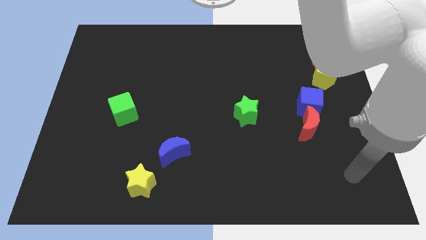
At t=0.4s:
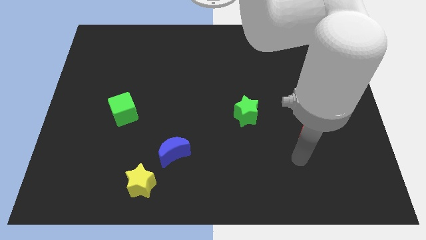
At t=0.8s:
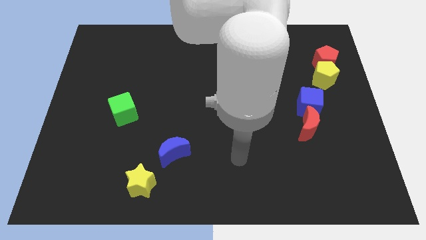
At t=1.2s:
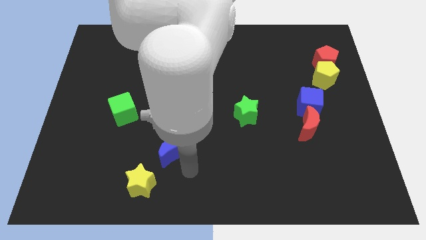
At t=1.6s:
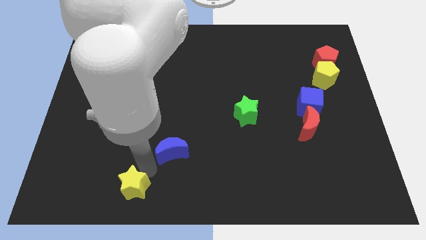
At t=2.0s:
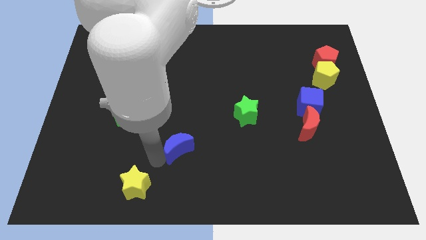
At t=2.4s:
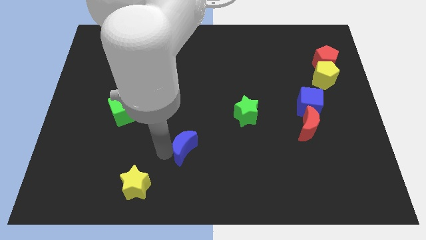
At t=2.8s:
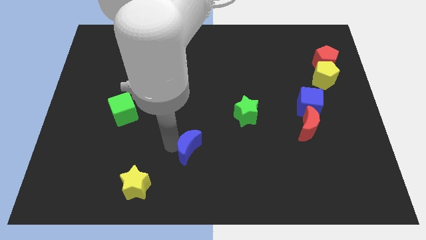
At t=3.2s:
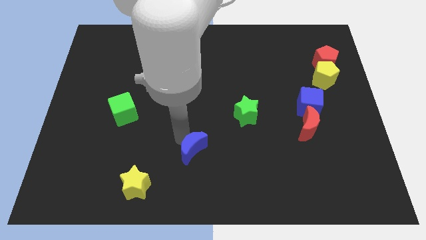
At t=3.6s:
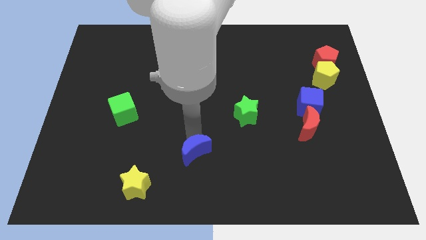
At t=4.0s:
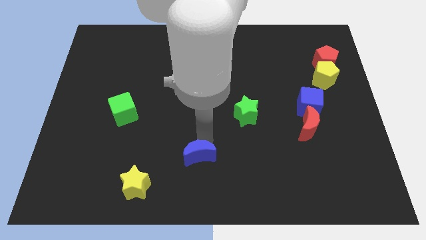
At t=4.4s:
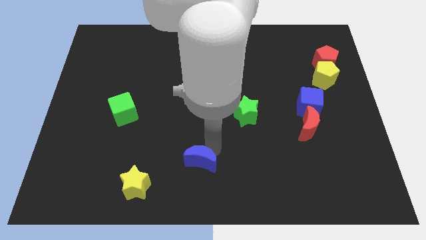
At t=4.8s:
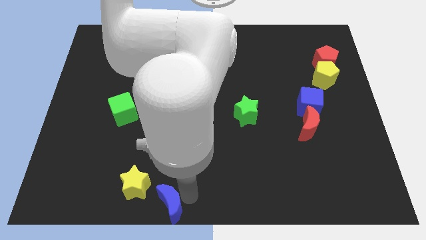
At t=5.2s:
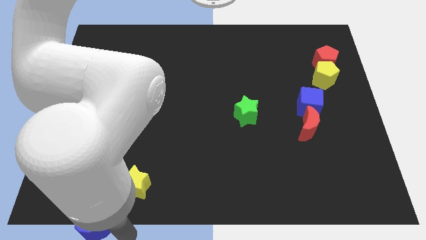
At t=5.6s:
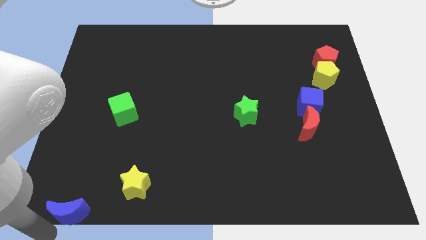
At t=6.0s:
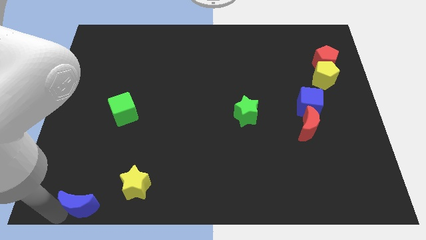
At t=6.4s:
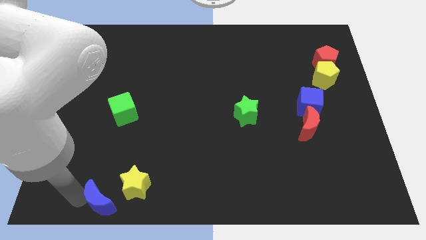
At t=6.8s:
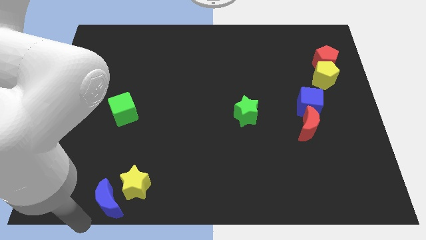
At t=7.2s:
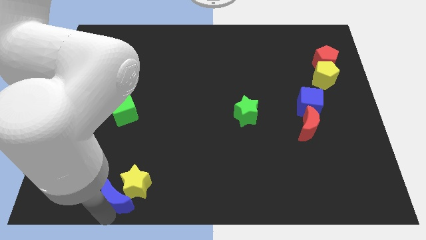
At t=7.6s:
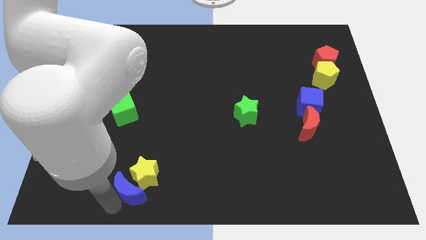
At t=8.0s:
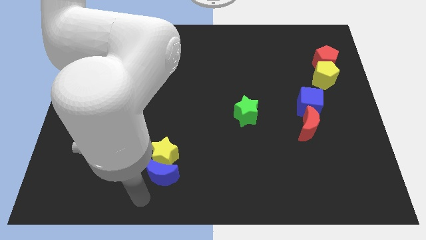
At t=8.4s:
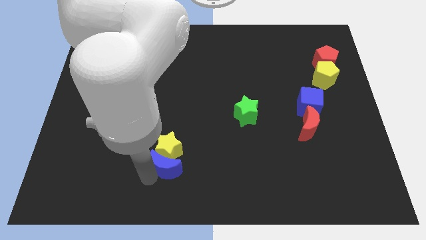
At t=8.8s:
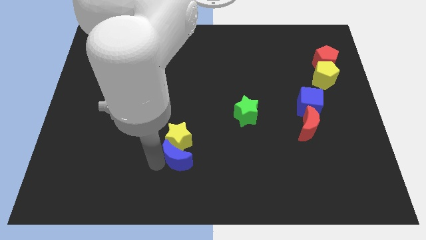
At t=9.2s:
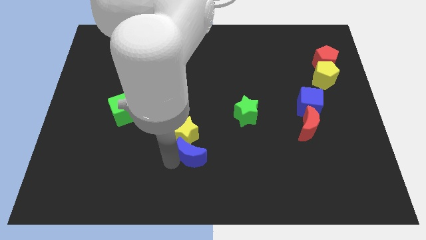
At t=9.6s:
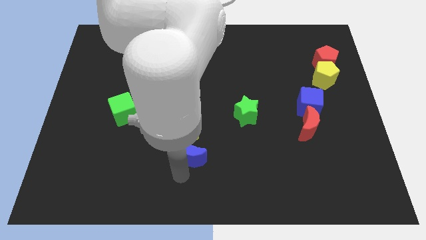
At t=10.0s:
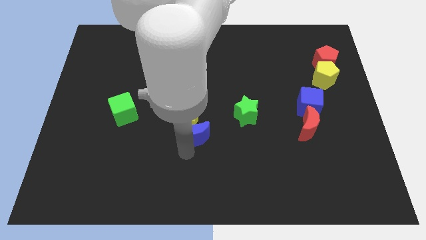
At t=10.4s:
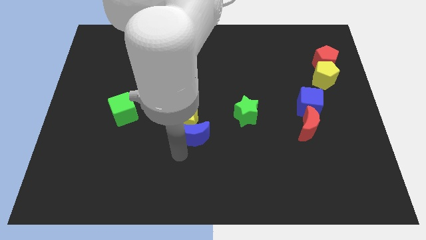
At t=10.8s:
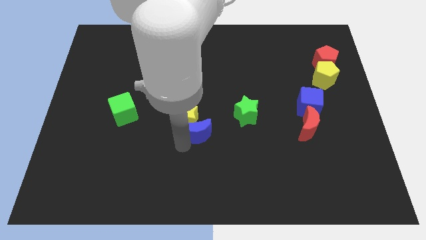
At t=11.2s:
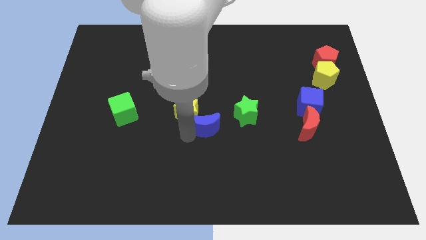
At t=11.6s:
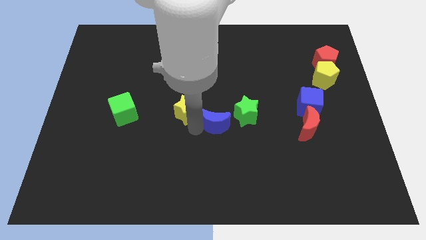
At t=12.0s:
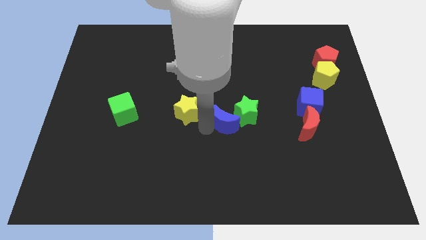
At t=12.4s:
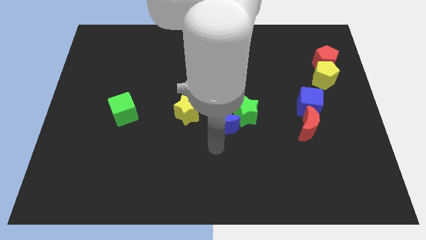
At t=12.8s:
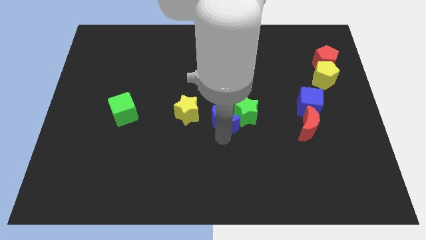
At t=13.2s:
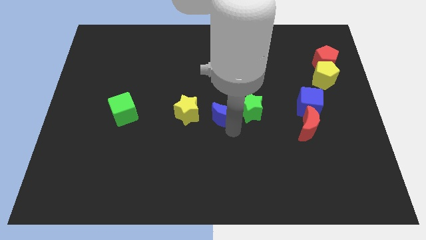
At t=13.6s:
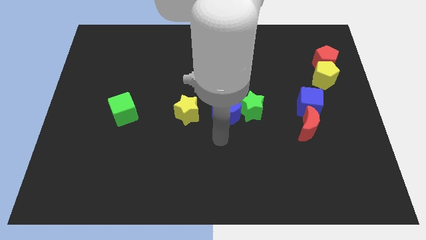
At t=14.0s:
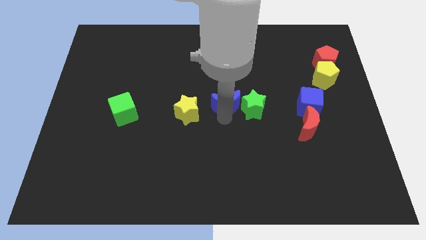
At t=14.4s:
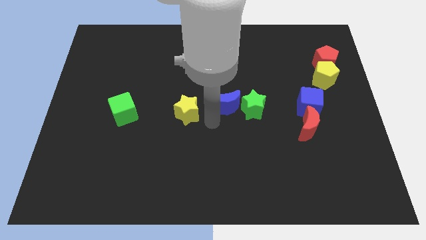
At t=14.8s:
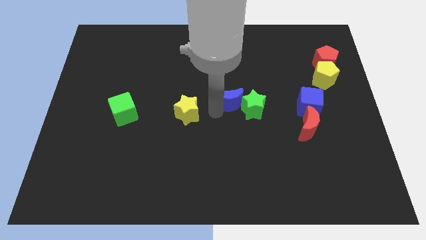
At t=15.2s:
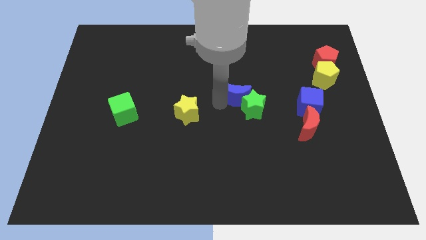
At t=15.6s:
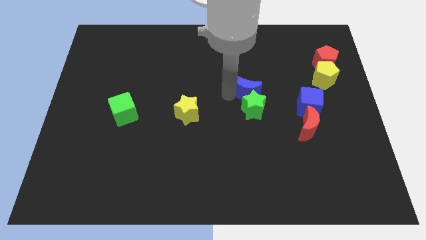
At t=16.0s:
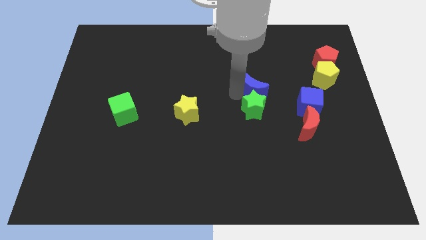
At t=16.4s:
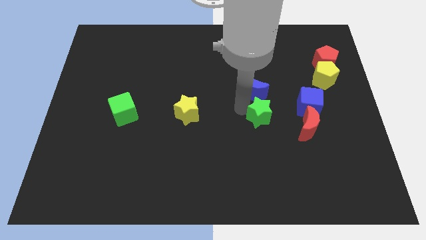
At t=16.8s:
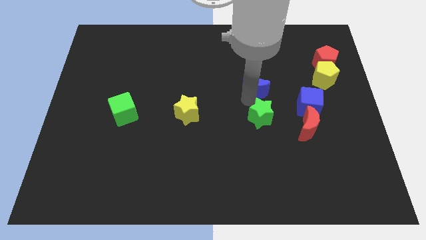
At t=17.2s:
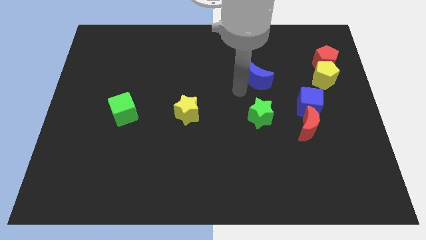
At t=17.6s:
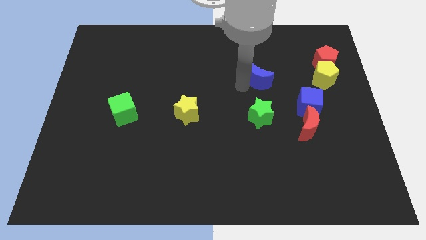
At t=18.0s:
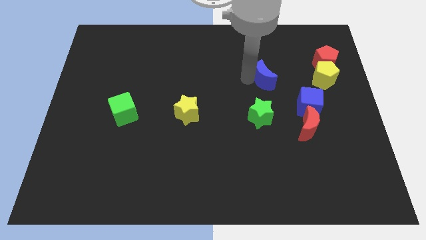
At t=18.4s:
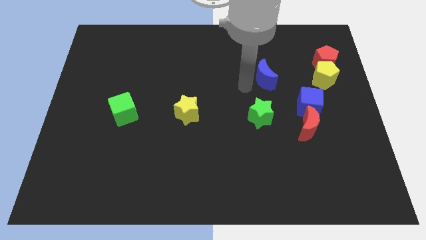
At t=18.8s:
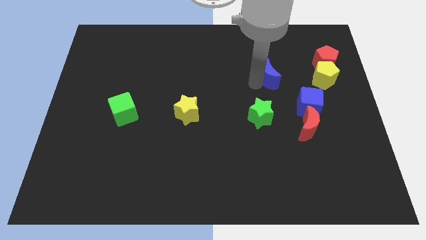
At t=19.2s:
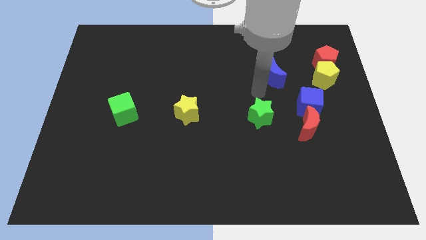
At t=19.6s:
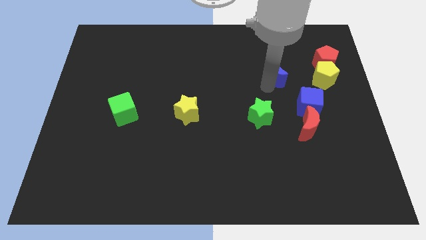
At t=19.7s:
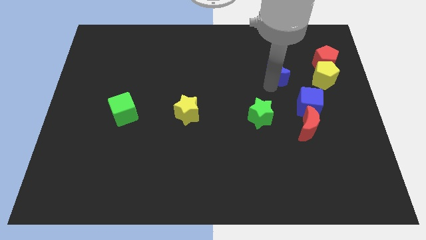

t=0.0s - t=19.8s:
move the blue moon to the left side of the red pentagon

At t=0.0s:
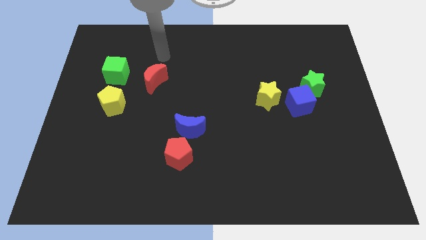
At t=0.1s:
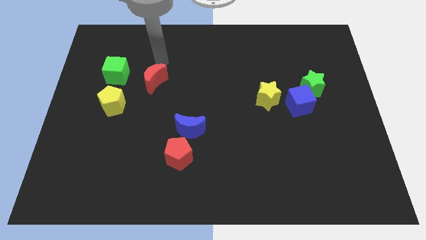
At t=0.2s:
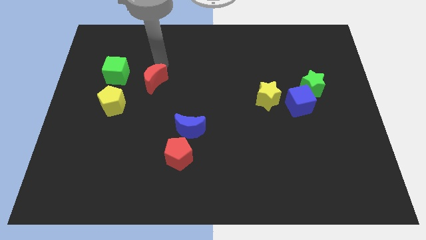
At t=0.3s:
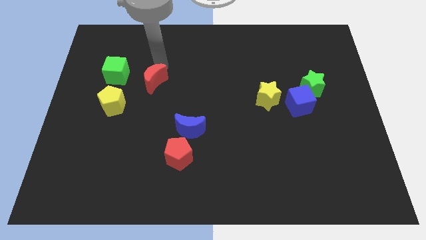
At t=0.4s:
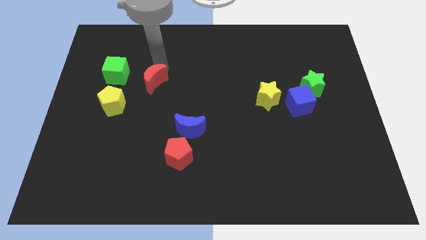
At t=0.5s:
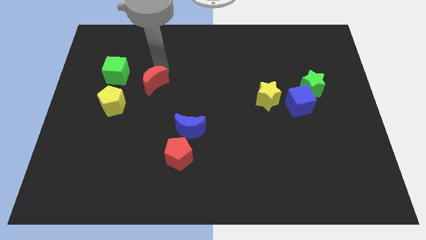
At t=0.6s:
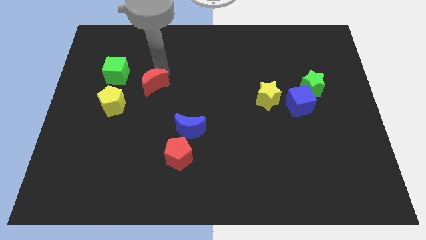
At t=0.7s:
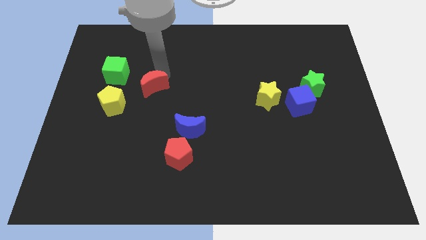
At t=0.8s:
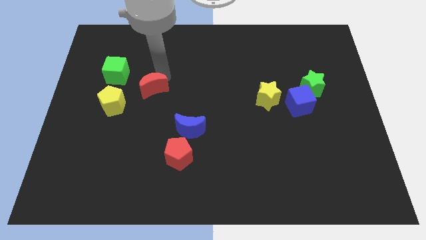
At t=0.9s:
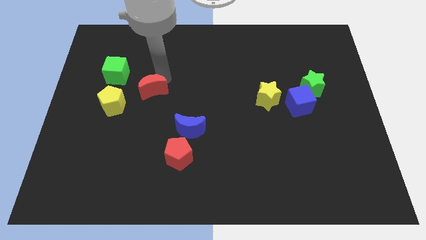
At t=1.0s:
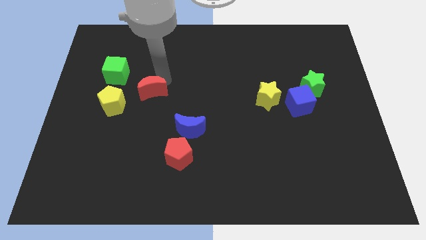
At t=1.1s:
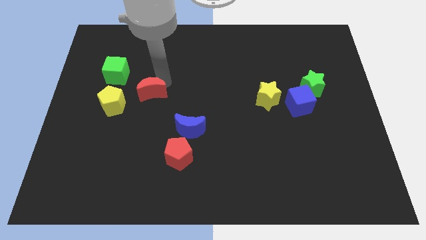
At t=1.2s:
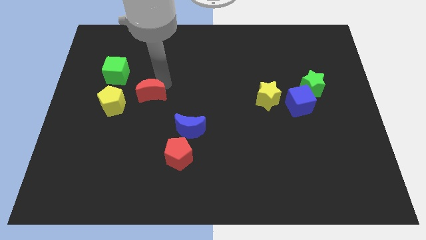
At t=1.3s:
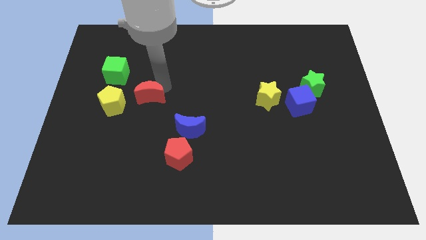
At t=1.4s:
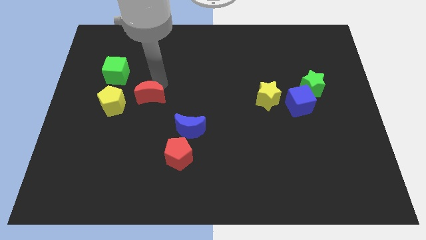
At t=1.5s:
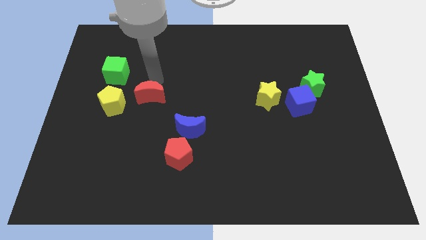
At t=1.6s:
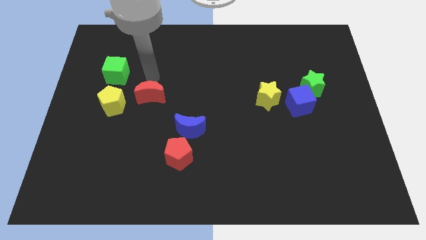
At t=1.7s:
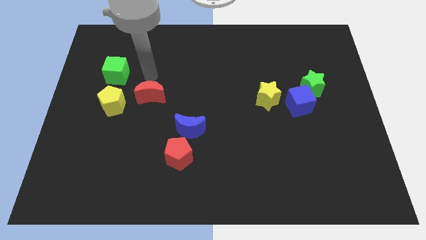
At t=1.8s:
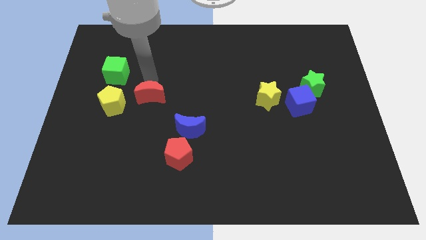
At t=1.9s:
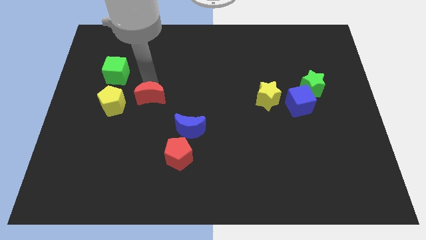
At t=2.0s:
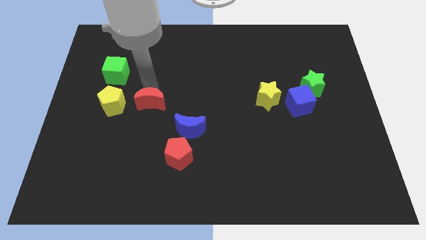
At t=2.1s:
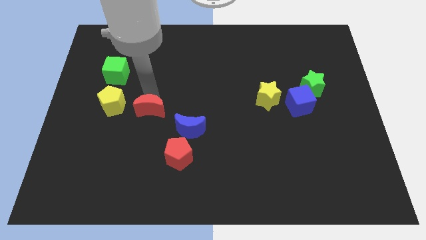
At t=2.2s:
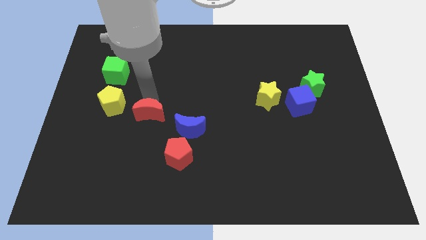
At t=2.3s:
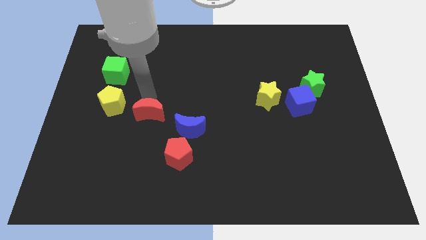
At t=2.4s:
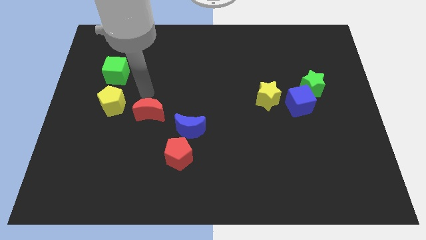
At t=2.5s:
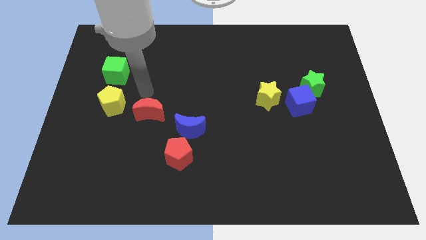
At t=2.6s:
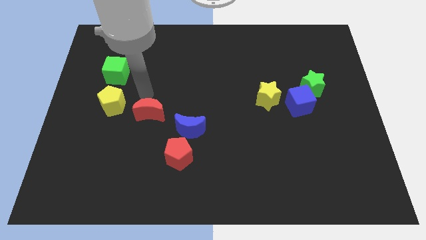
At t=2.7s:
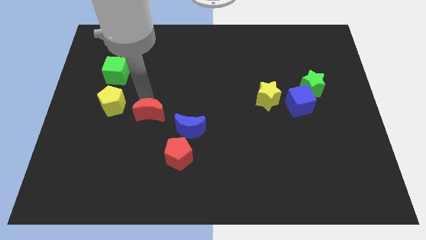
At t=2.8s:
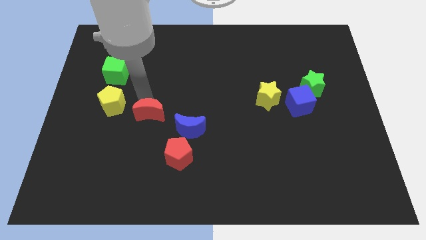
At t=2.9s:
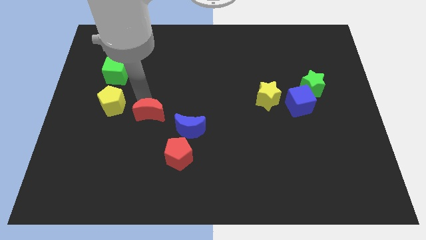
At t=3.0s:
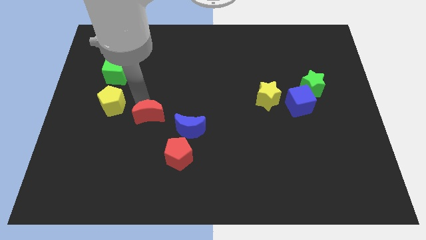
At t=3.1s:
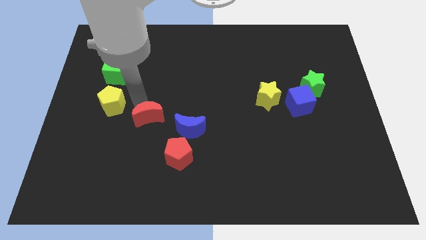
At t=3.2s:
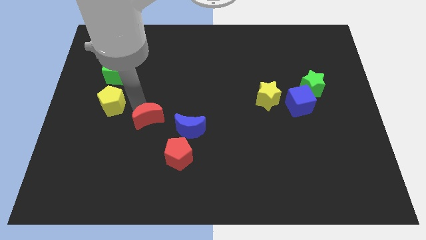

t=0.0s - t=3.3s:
slide the red moon to the top left of the red pentagon
